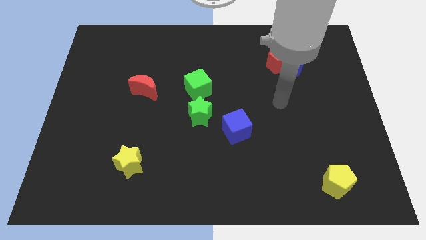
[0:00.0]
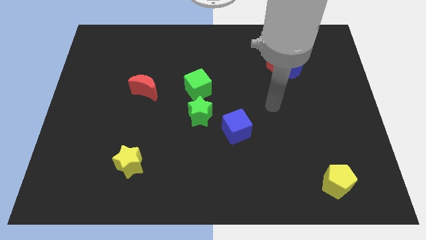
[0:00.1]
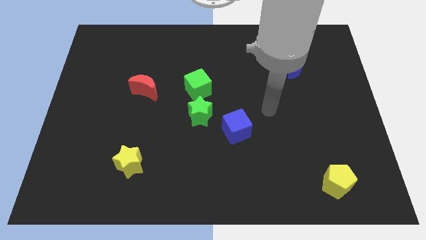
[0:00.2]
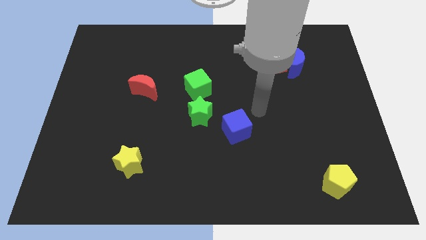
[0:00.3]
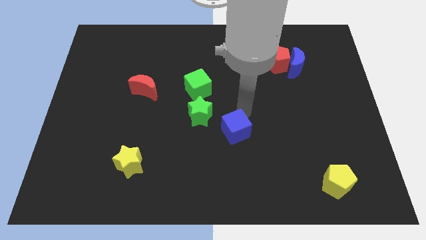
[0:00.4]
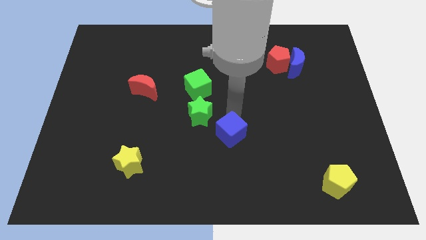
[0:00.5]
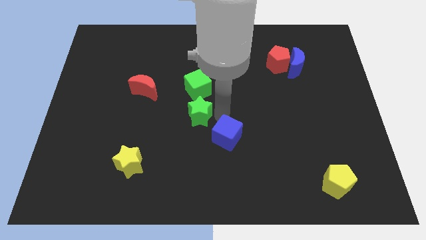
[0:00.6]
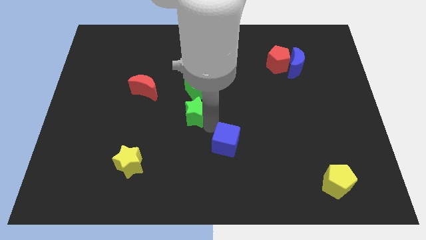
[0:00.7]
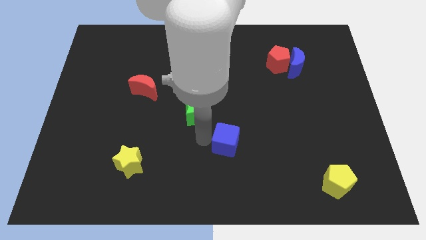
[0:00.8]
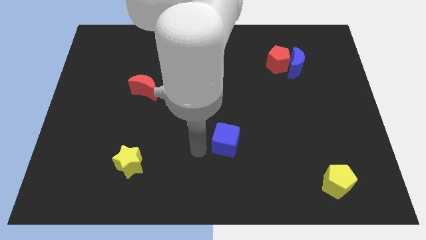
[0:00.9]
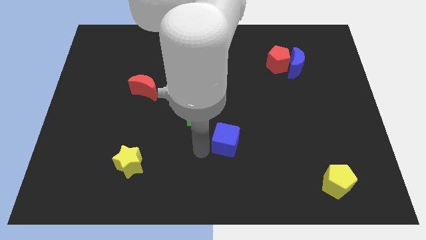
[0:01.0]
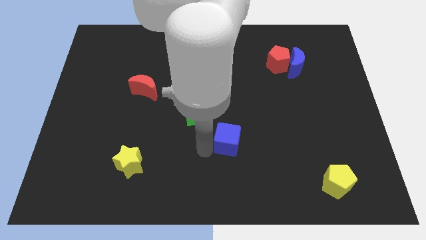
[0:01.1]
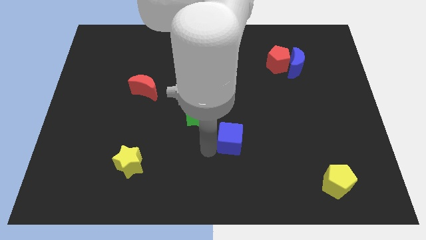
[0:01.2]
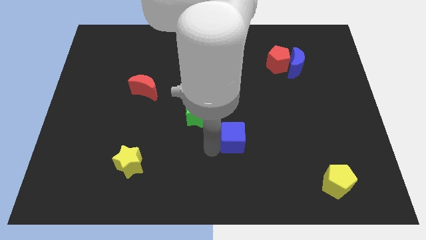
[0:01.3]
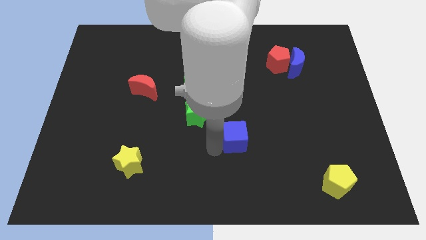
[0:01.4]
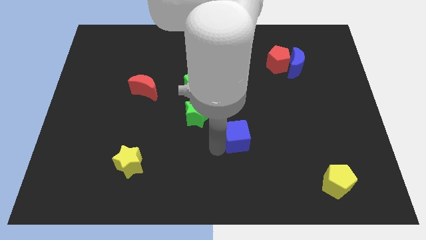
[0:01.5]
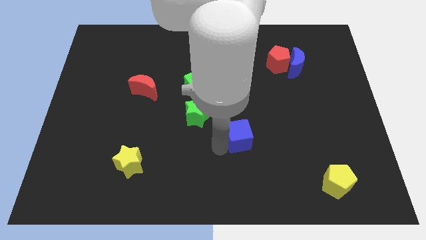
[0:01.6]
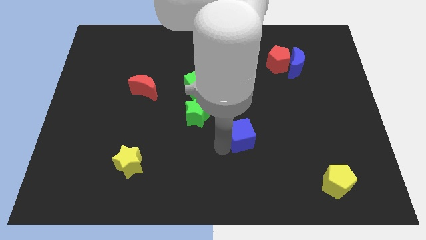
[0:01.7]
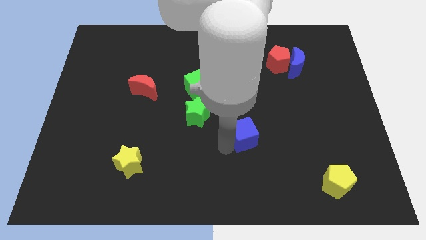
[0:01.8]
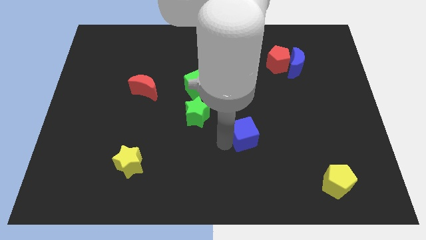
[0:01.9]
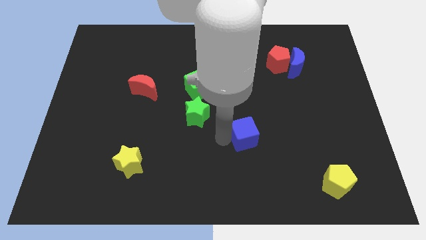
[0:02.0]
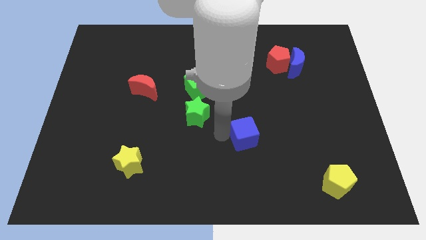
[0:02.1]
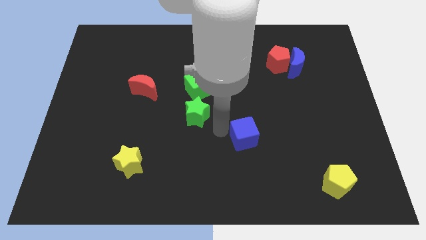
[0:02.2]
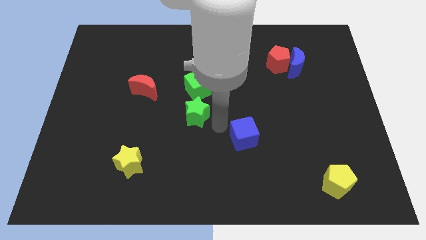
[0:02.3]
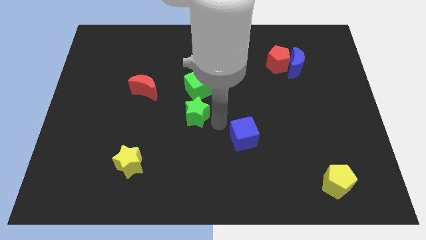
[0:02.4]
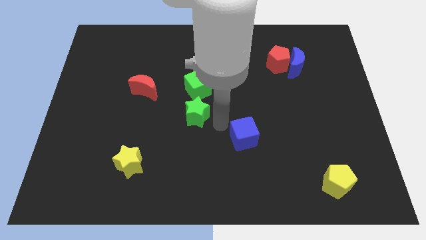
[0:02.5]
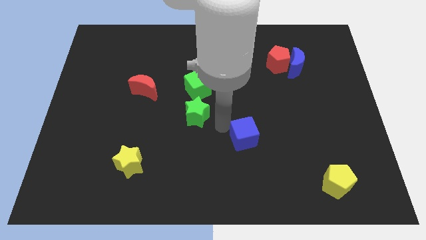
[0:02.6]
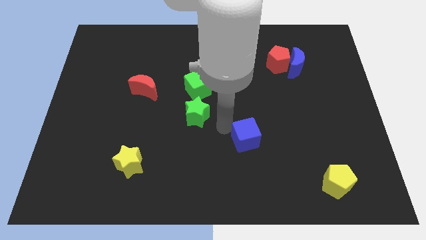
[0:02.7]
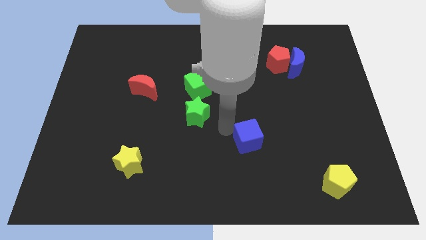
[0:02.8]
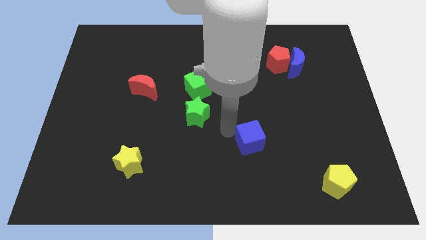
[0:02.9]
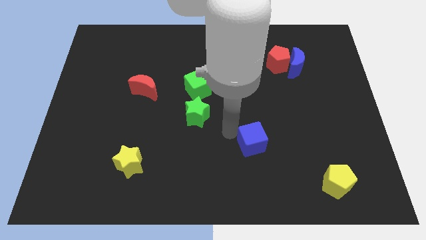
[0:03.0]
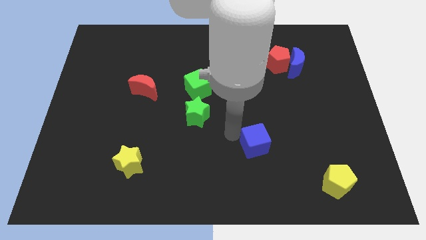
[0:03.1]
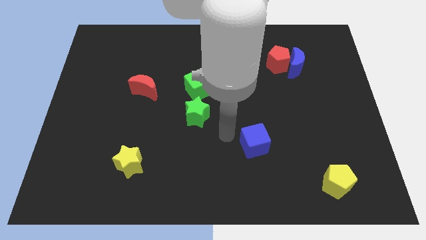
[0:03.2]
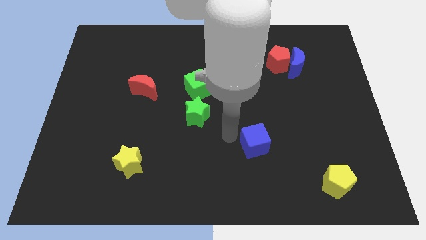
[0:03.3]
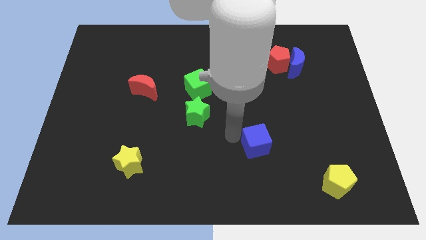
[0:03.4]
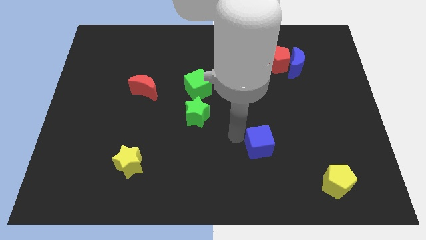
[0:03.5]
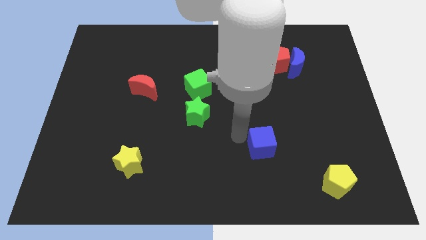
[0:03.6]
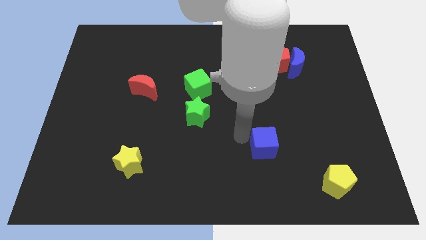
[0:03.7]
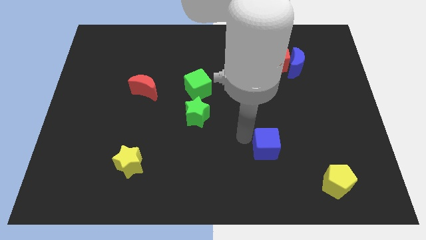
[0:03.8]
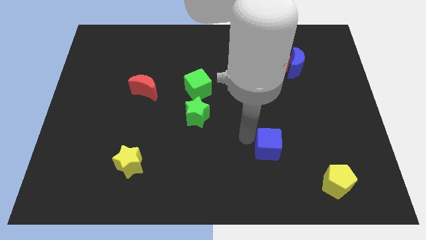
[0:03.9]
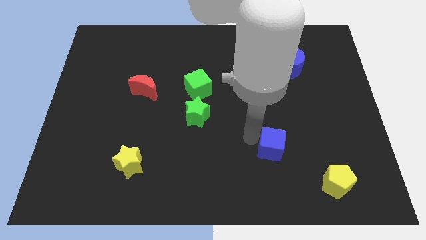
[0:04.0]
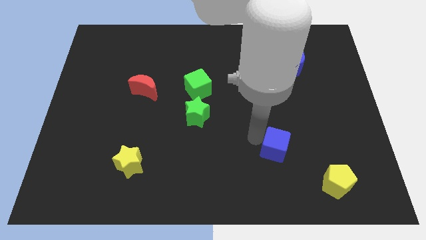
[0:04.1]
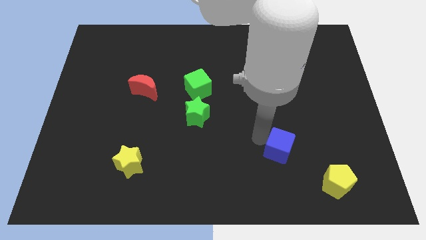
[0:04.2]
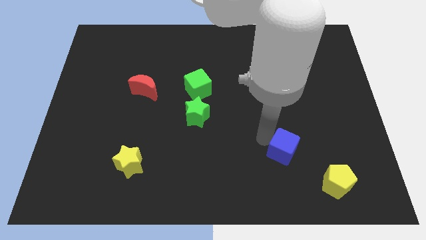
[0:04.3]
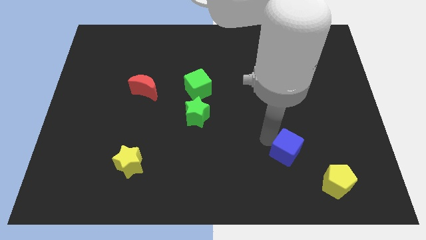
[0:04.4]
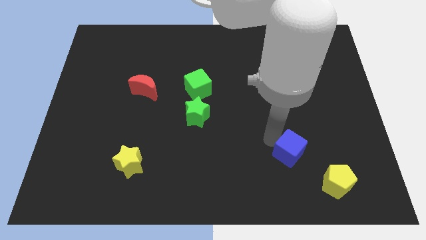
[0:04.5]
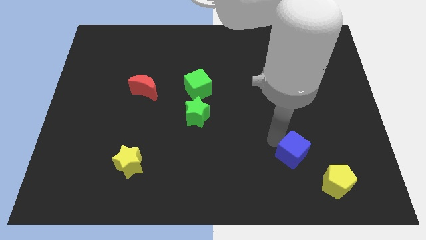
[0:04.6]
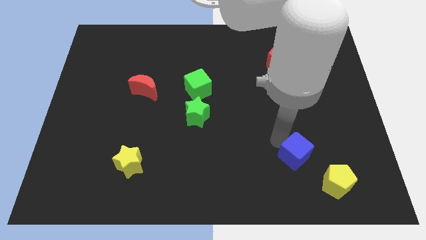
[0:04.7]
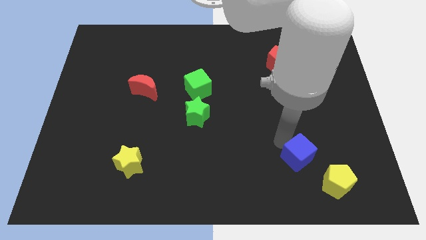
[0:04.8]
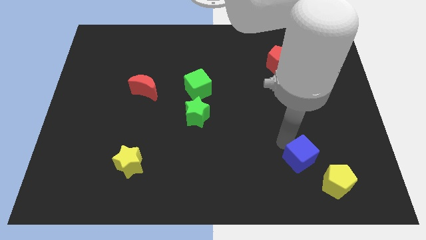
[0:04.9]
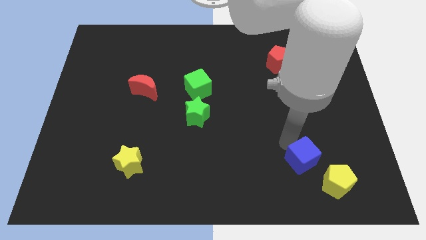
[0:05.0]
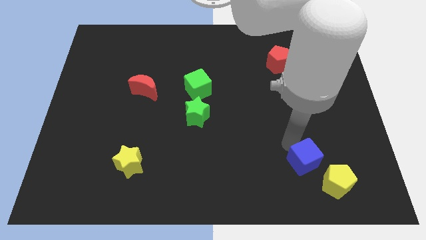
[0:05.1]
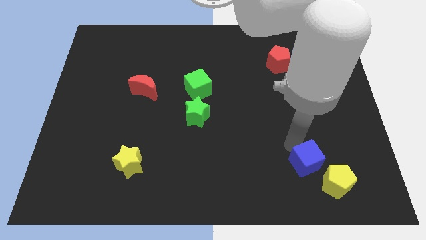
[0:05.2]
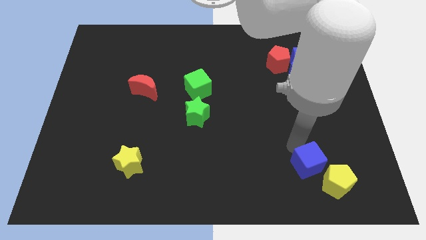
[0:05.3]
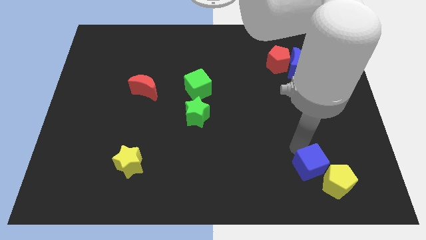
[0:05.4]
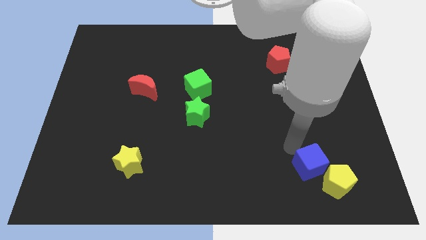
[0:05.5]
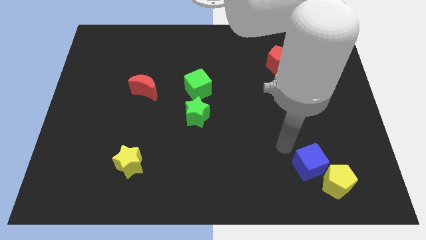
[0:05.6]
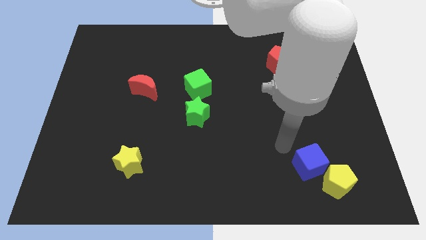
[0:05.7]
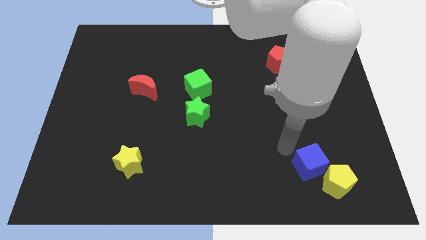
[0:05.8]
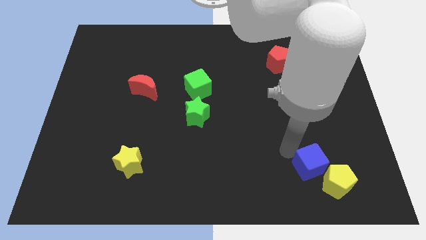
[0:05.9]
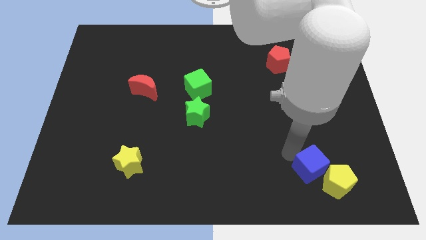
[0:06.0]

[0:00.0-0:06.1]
put the blue cube close to the yellow pentagon
